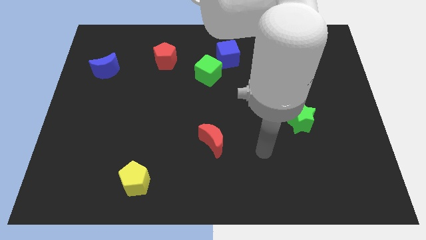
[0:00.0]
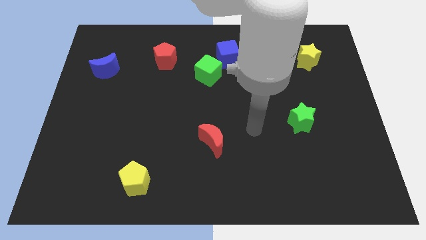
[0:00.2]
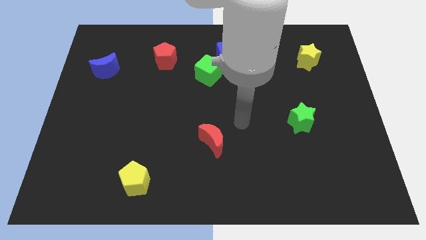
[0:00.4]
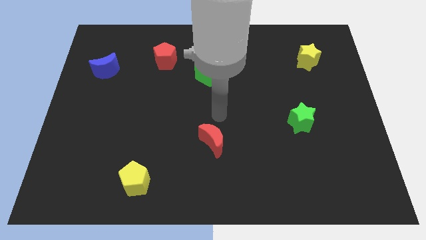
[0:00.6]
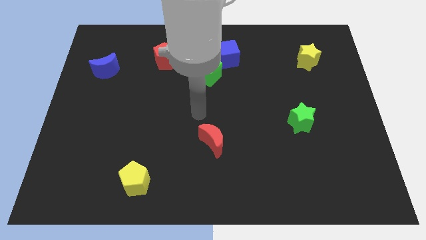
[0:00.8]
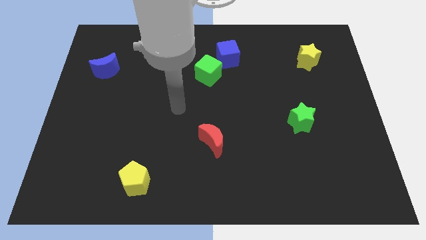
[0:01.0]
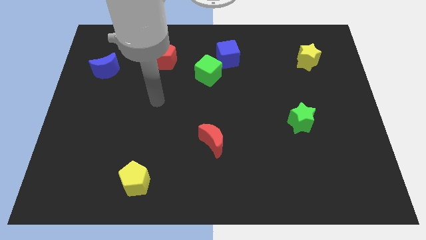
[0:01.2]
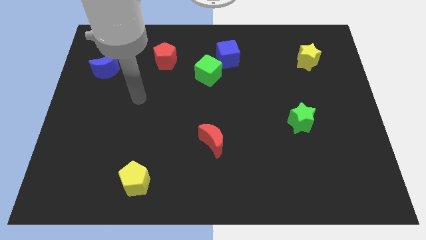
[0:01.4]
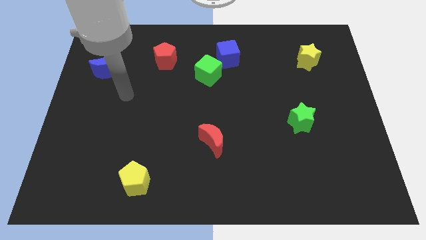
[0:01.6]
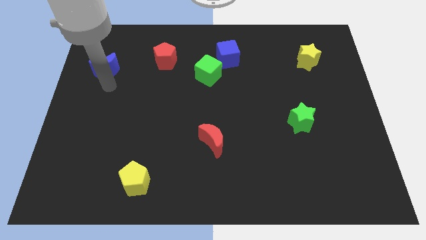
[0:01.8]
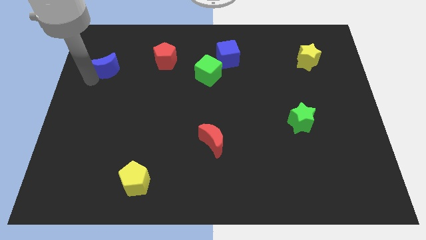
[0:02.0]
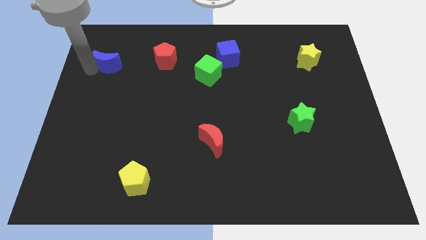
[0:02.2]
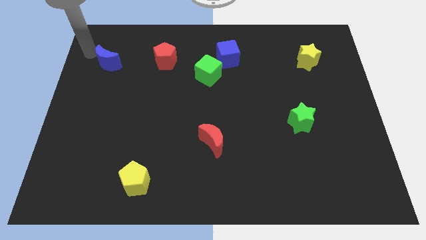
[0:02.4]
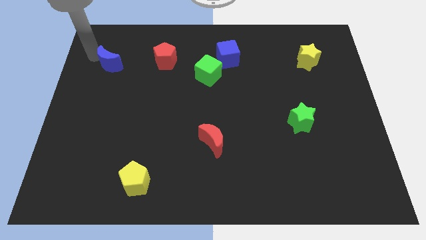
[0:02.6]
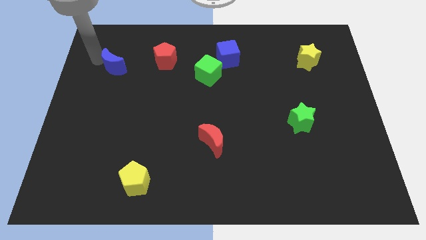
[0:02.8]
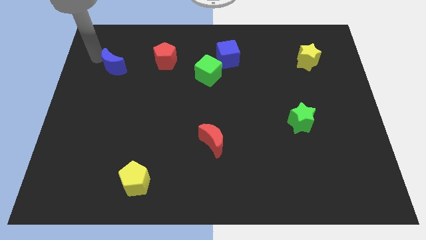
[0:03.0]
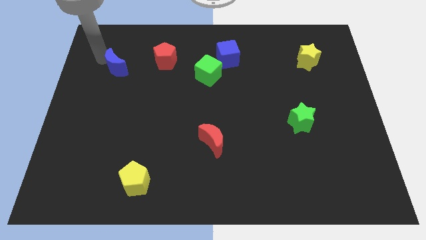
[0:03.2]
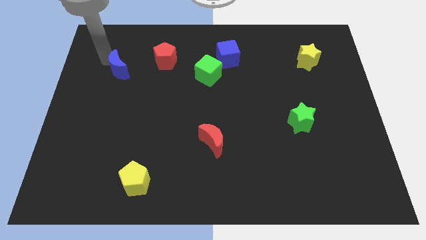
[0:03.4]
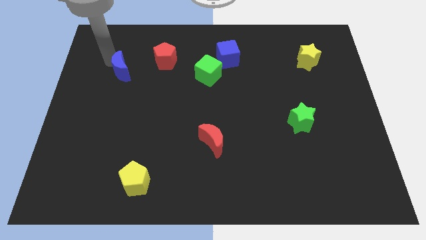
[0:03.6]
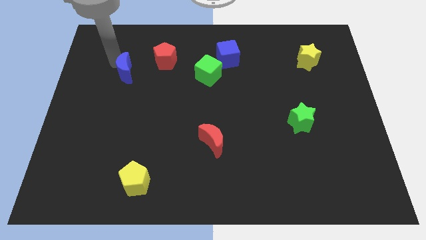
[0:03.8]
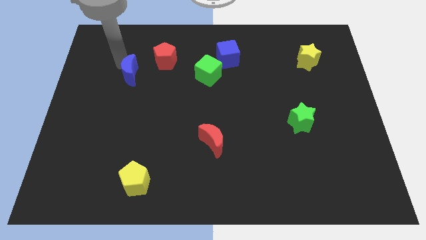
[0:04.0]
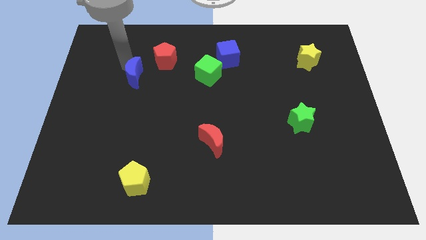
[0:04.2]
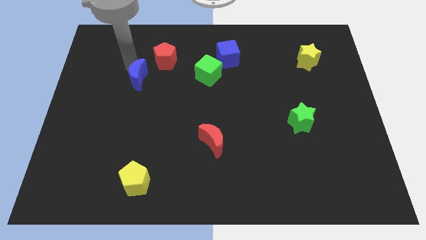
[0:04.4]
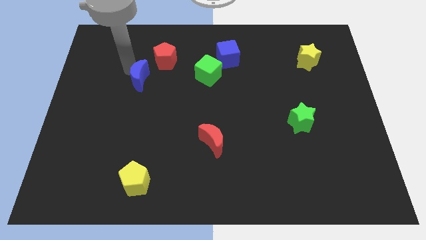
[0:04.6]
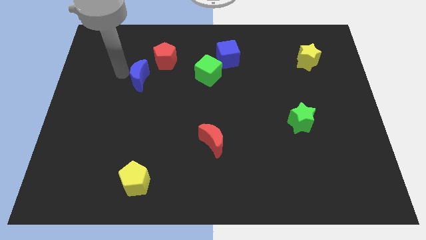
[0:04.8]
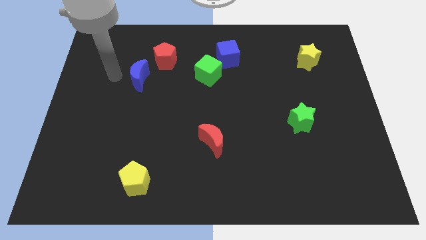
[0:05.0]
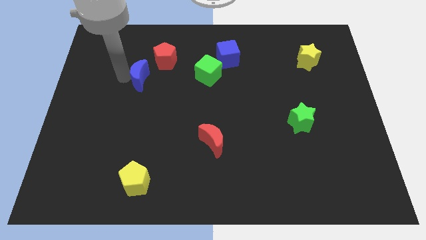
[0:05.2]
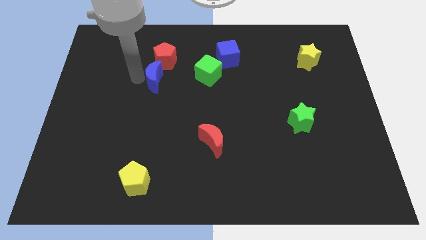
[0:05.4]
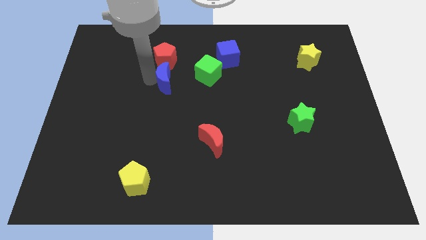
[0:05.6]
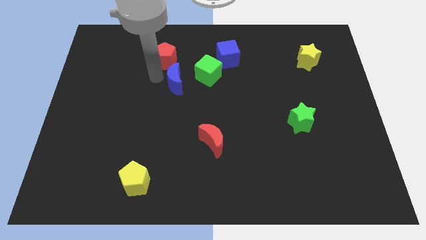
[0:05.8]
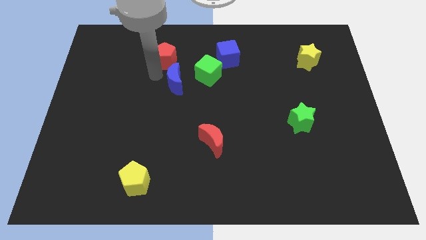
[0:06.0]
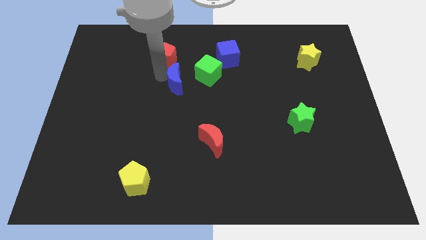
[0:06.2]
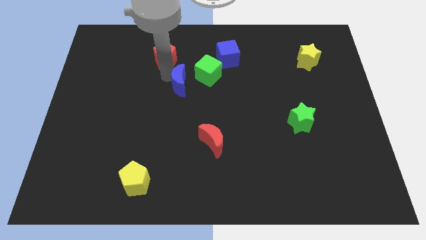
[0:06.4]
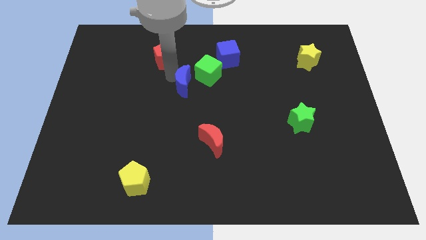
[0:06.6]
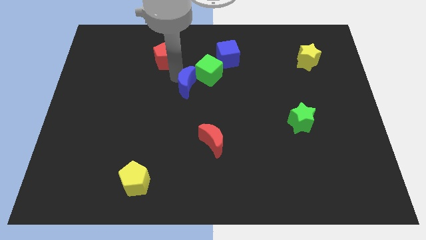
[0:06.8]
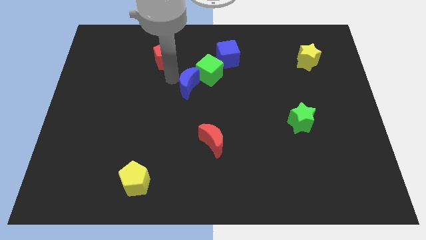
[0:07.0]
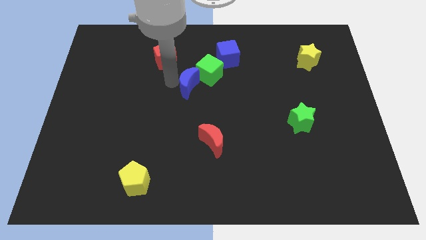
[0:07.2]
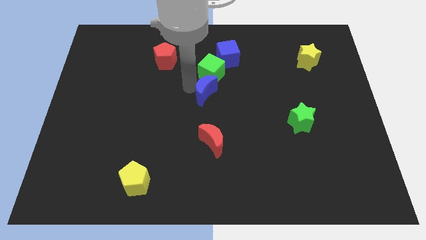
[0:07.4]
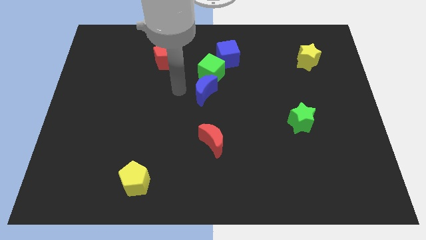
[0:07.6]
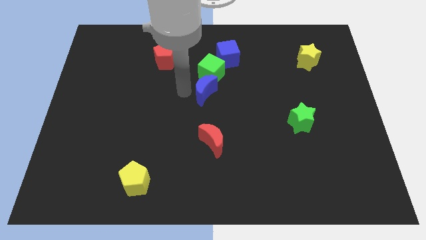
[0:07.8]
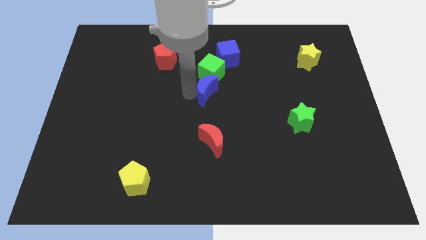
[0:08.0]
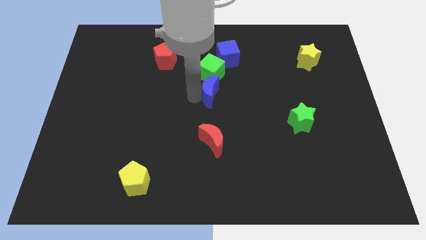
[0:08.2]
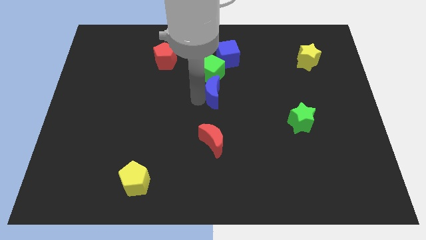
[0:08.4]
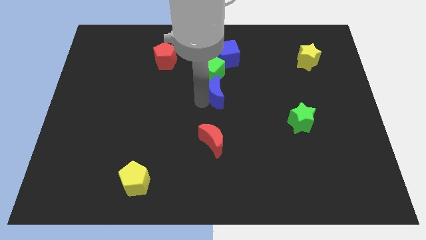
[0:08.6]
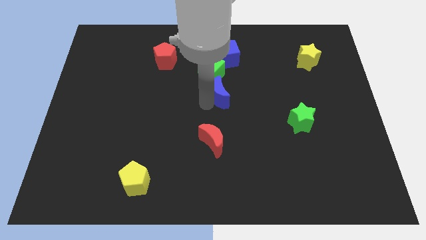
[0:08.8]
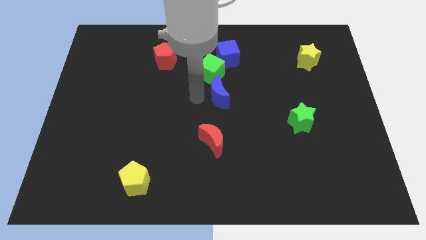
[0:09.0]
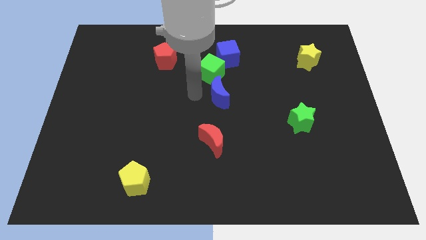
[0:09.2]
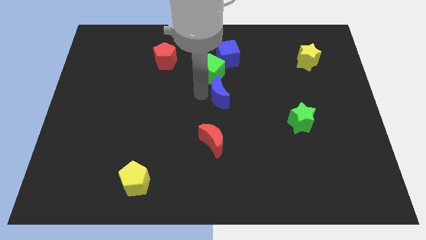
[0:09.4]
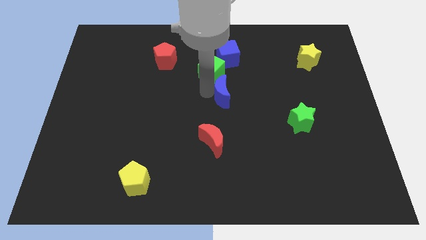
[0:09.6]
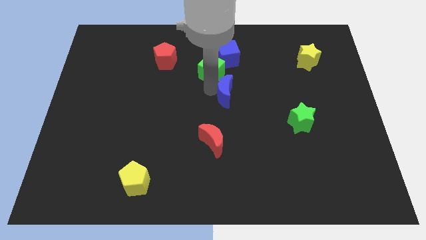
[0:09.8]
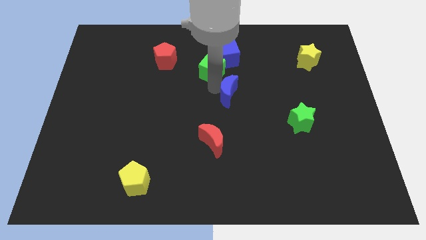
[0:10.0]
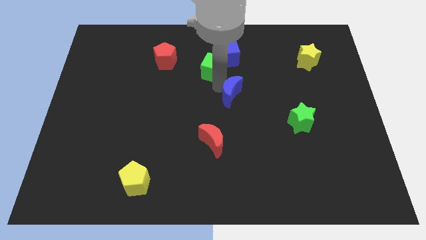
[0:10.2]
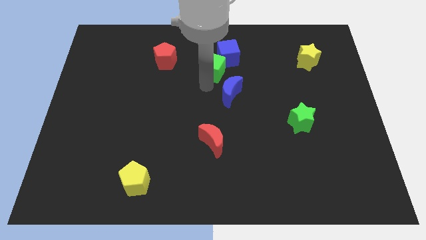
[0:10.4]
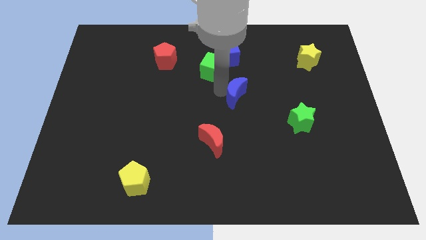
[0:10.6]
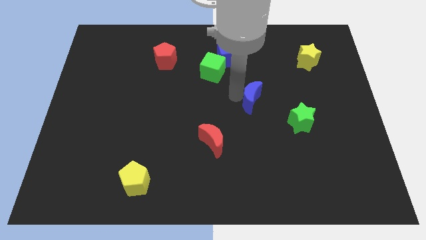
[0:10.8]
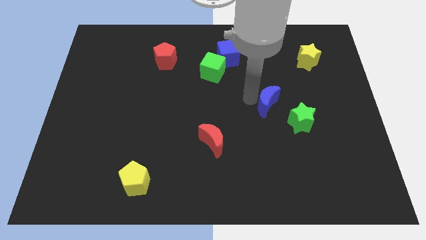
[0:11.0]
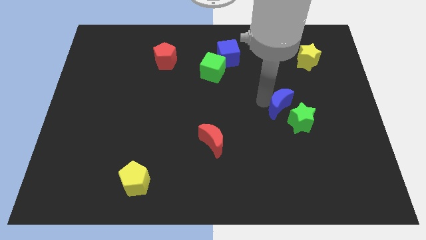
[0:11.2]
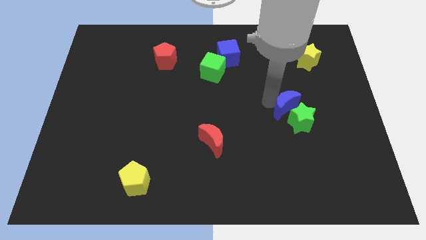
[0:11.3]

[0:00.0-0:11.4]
move the blue moon towards the green star
